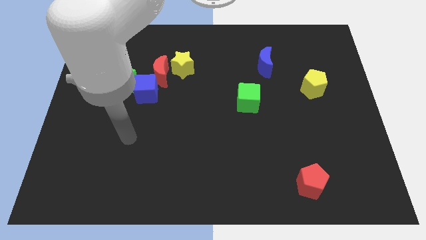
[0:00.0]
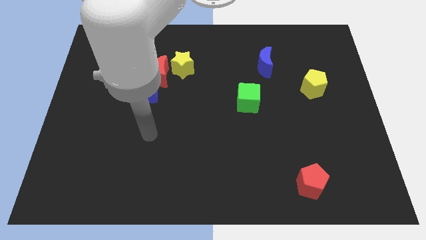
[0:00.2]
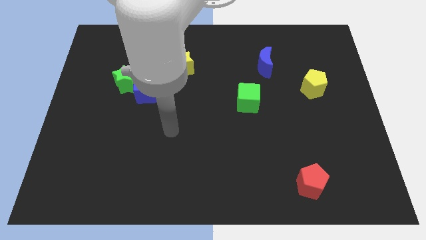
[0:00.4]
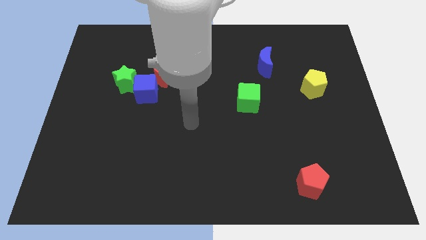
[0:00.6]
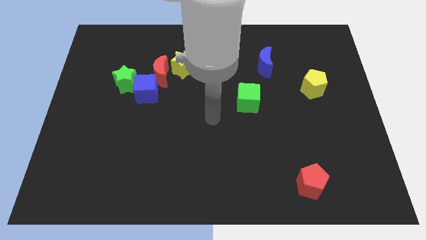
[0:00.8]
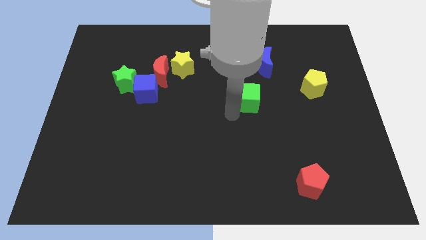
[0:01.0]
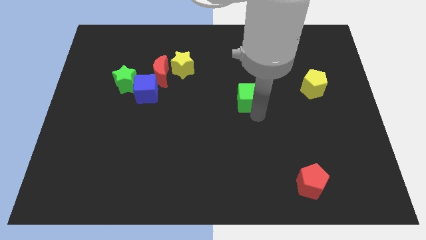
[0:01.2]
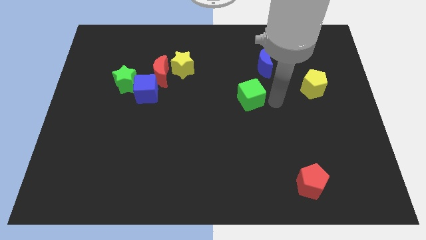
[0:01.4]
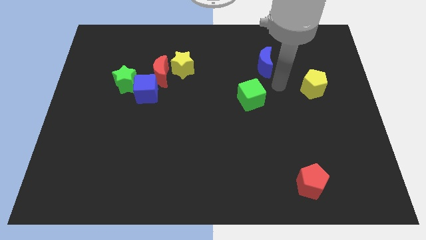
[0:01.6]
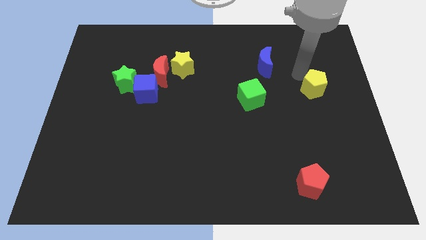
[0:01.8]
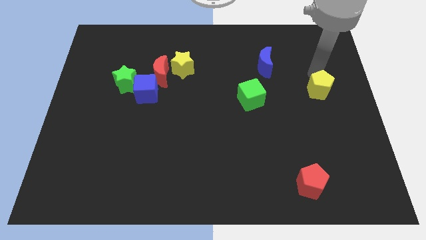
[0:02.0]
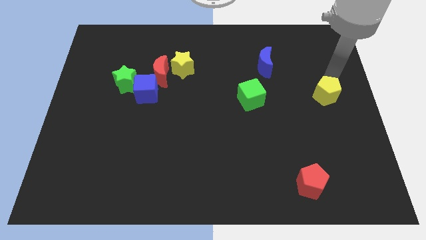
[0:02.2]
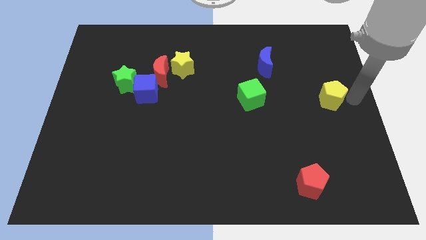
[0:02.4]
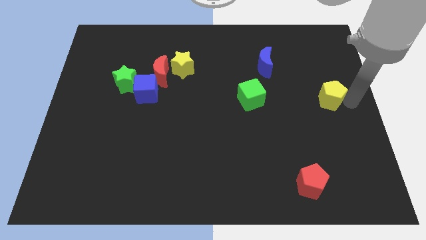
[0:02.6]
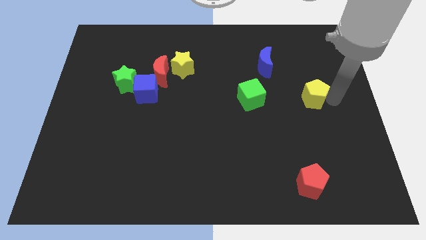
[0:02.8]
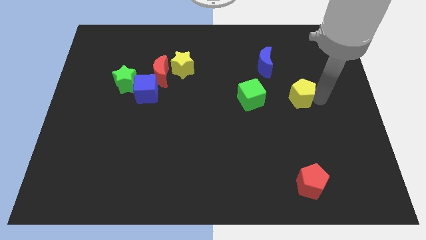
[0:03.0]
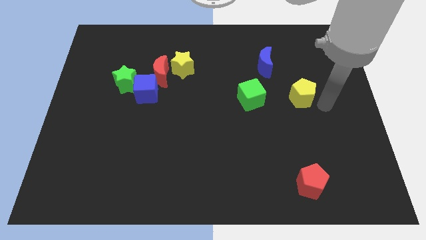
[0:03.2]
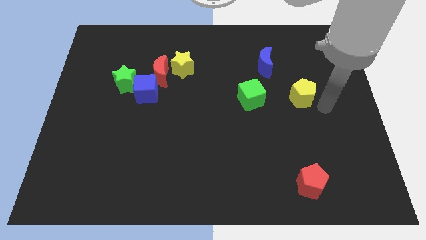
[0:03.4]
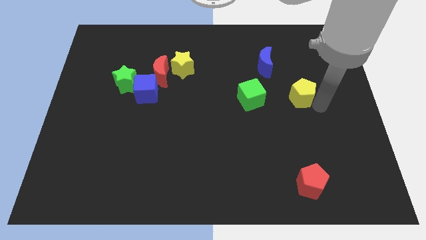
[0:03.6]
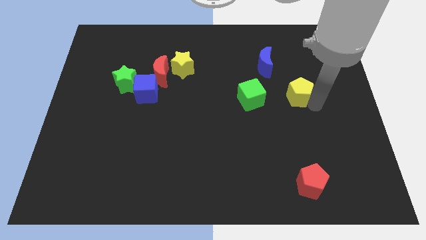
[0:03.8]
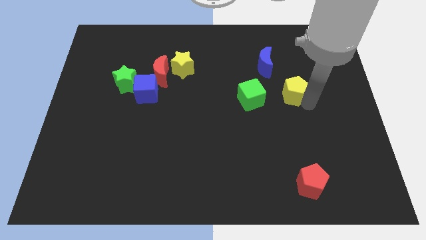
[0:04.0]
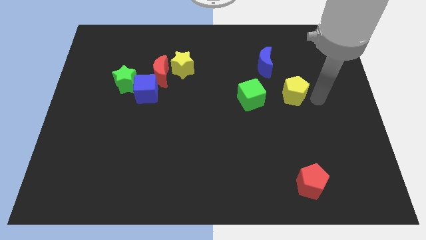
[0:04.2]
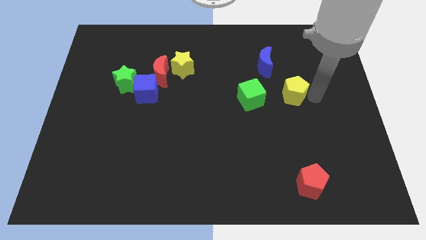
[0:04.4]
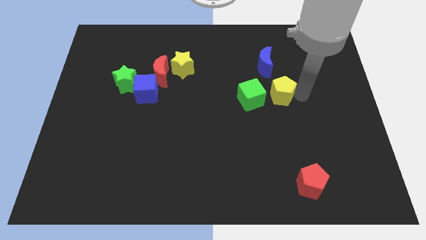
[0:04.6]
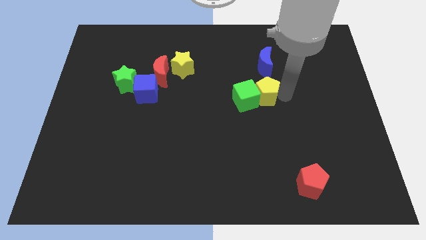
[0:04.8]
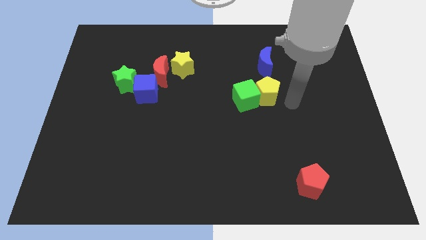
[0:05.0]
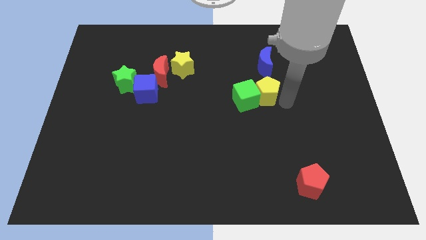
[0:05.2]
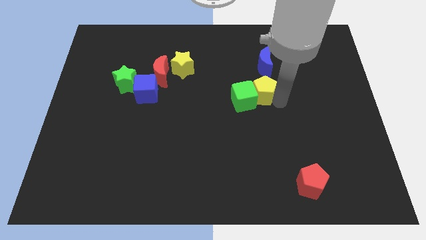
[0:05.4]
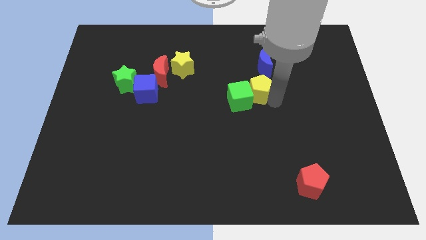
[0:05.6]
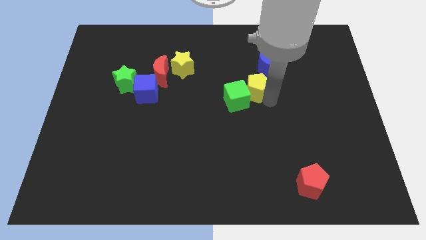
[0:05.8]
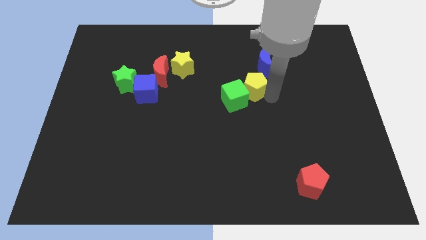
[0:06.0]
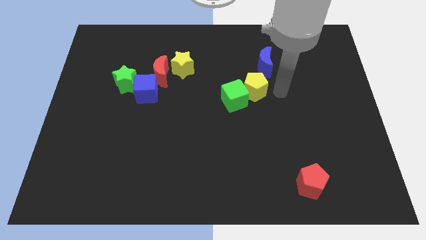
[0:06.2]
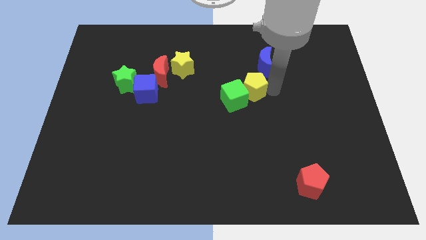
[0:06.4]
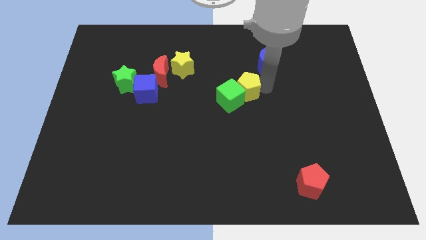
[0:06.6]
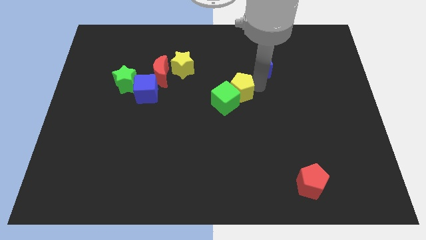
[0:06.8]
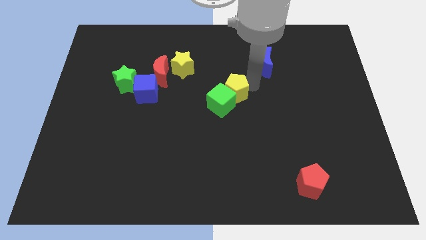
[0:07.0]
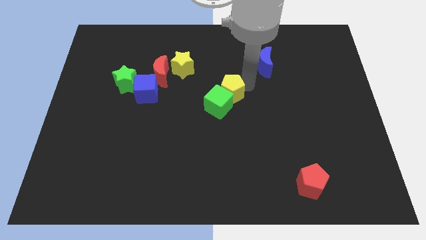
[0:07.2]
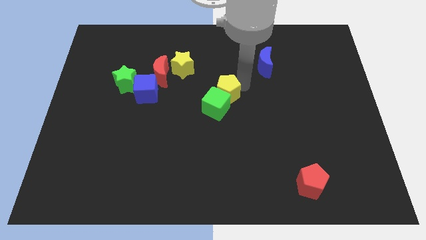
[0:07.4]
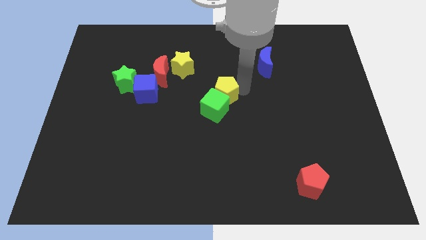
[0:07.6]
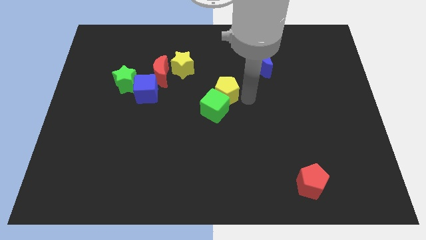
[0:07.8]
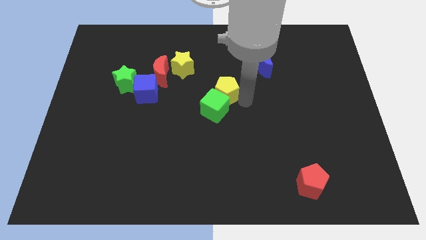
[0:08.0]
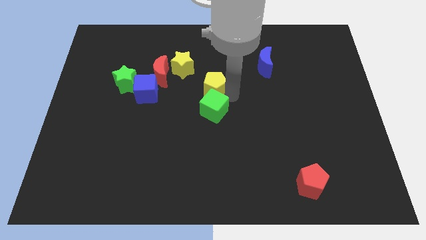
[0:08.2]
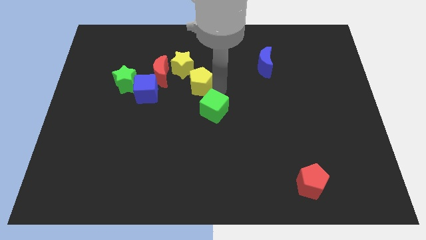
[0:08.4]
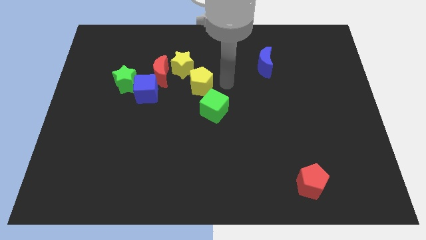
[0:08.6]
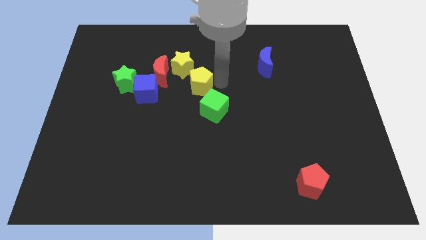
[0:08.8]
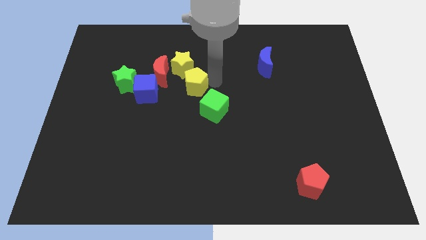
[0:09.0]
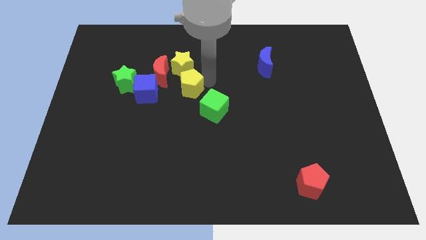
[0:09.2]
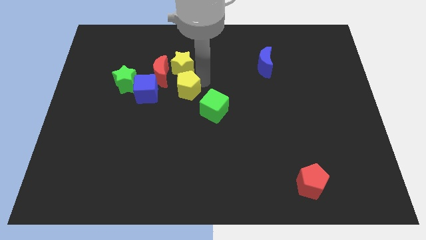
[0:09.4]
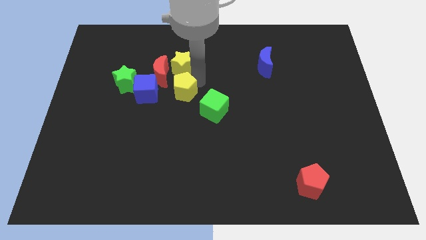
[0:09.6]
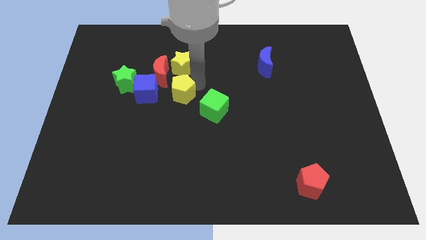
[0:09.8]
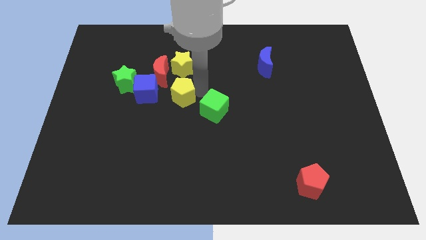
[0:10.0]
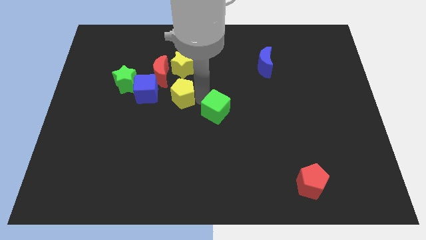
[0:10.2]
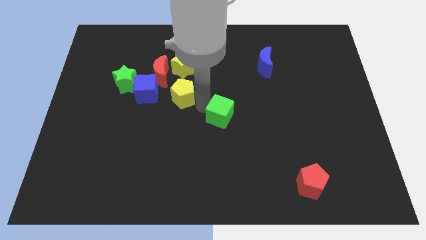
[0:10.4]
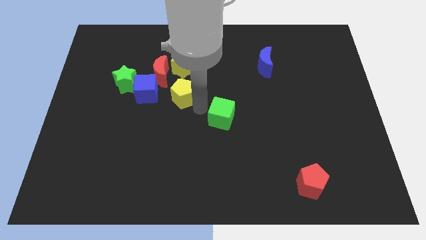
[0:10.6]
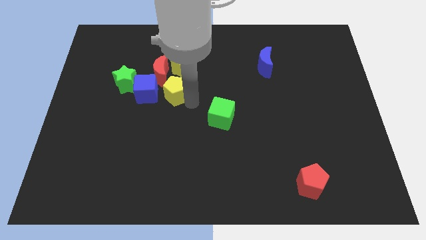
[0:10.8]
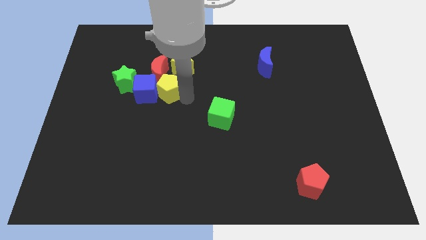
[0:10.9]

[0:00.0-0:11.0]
push the yellow pentagon to the blue cube

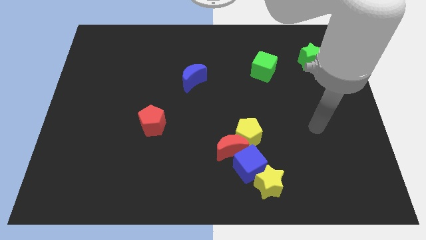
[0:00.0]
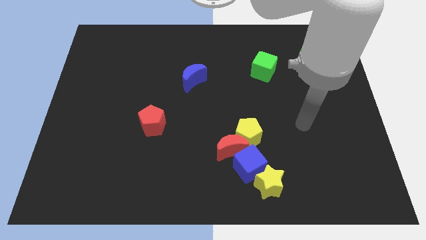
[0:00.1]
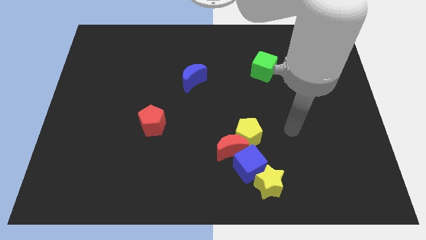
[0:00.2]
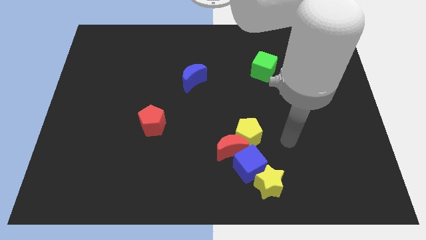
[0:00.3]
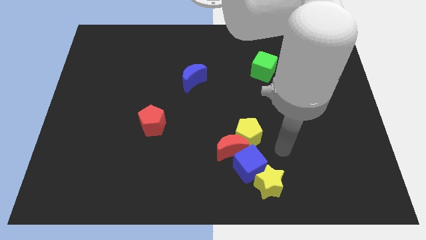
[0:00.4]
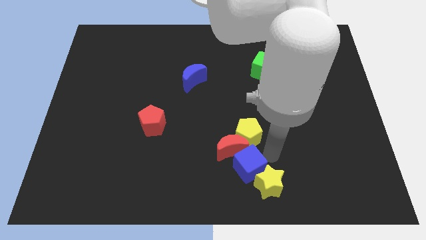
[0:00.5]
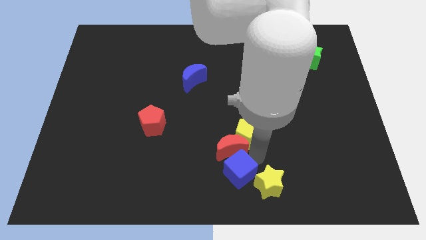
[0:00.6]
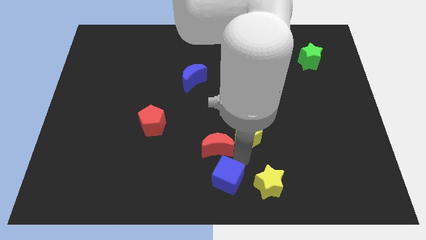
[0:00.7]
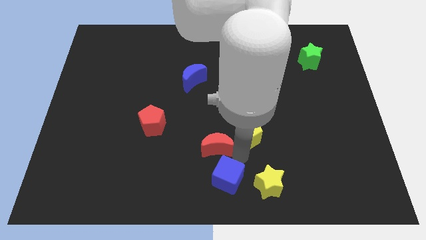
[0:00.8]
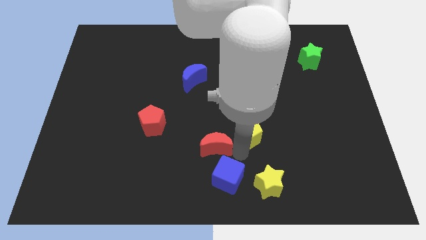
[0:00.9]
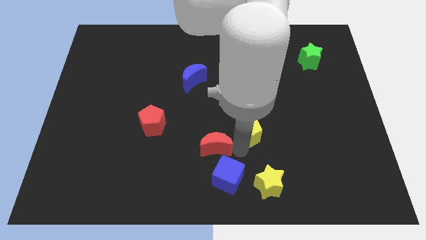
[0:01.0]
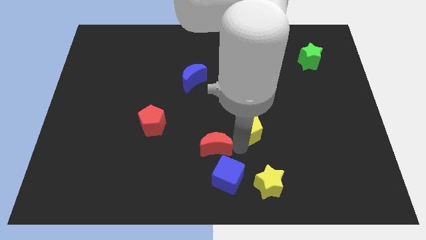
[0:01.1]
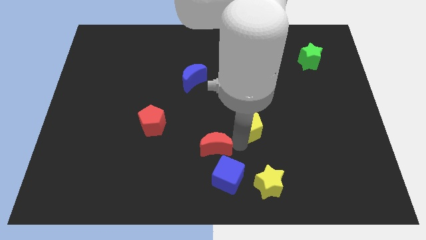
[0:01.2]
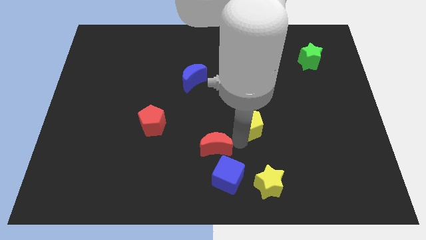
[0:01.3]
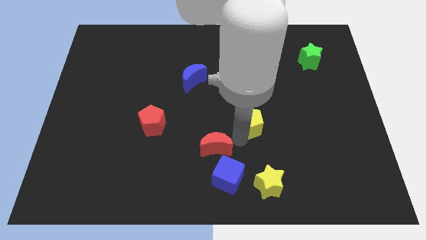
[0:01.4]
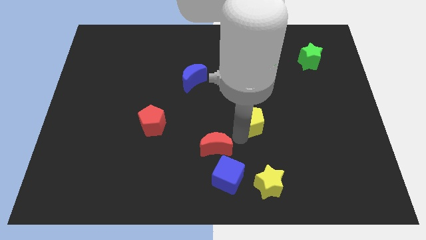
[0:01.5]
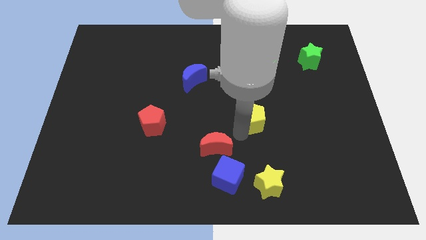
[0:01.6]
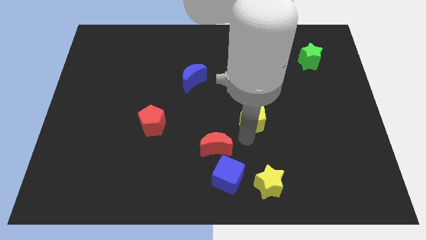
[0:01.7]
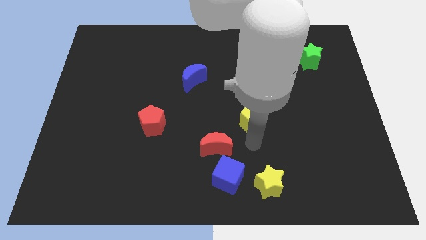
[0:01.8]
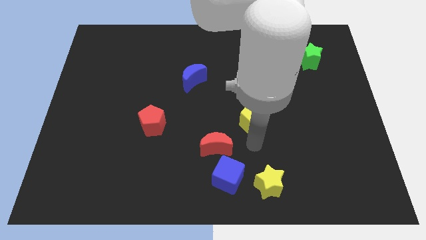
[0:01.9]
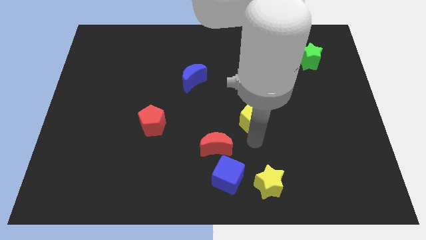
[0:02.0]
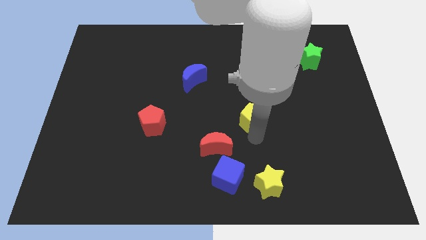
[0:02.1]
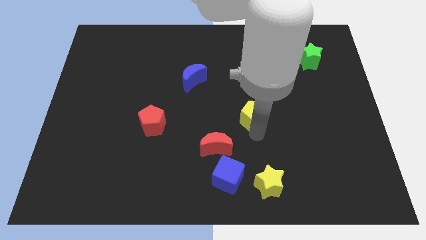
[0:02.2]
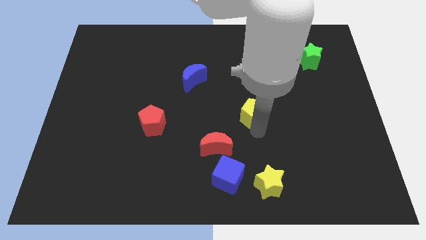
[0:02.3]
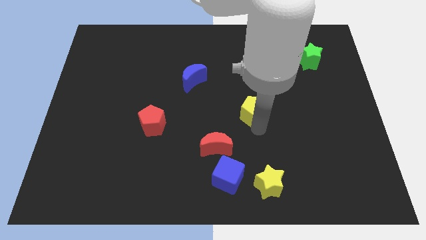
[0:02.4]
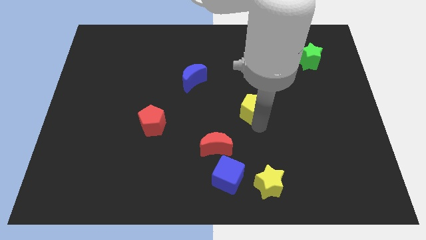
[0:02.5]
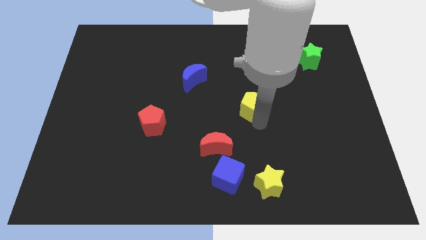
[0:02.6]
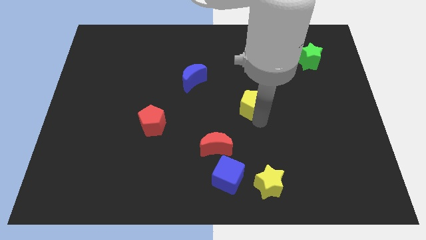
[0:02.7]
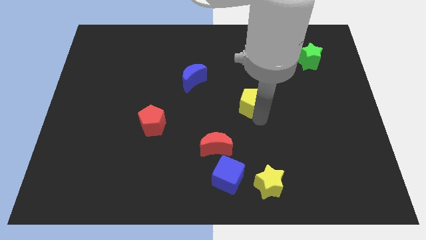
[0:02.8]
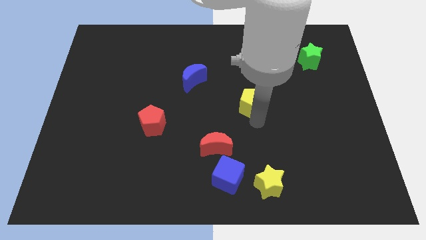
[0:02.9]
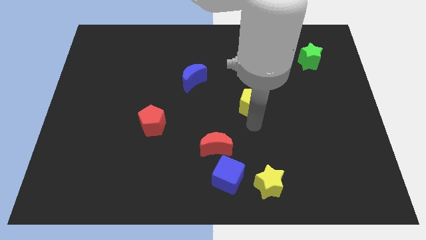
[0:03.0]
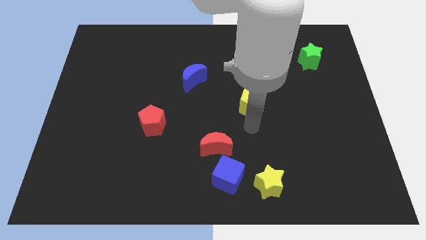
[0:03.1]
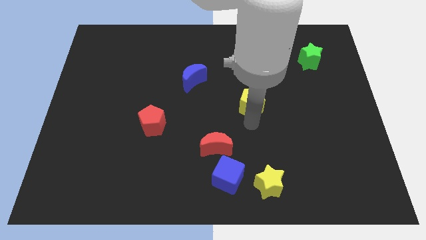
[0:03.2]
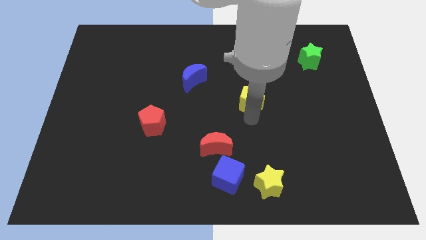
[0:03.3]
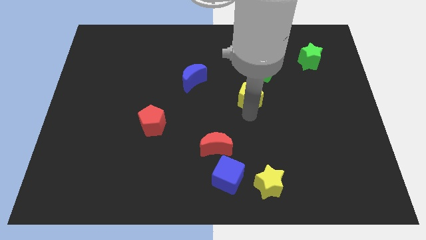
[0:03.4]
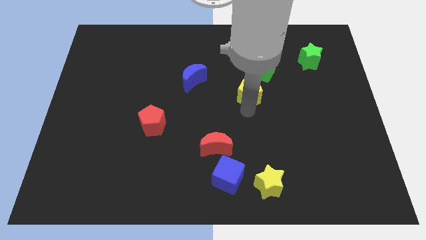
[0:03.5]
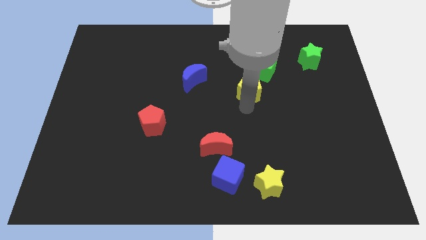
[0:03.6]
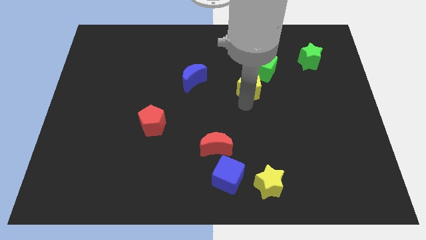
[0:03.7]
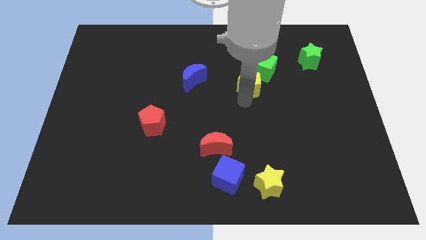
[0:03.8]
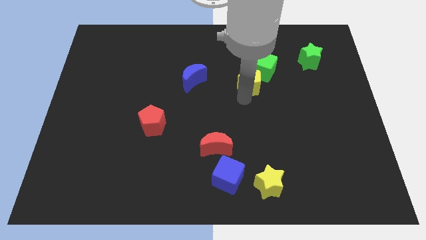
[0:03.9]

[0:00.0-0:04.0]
move the yellow pentagon towards the green cube
